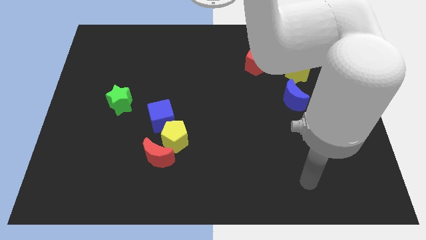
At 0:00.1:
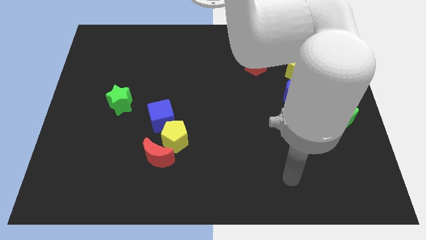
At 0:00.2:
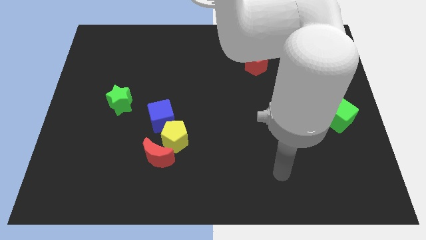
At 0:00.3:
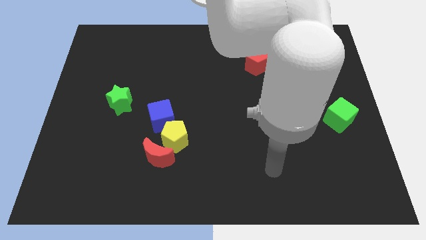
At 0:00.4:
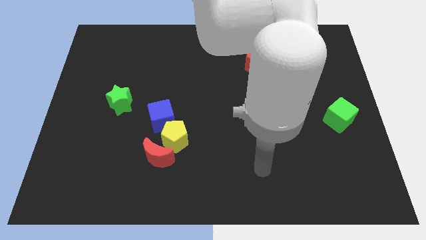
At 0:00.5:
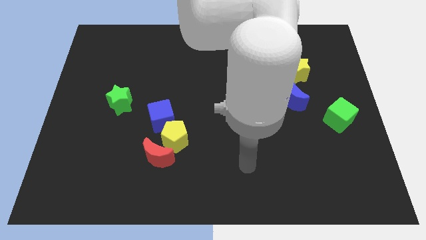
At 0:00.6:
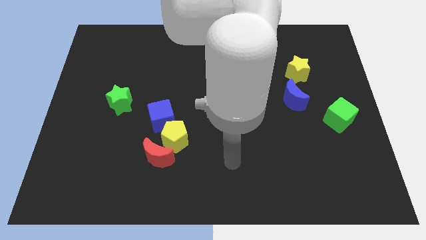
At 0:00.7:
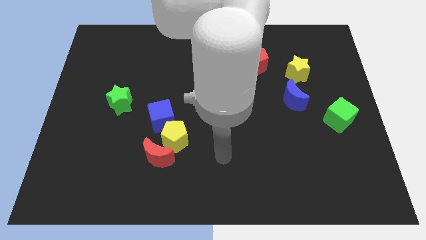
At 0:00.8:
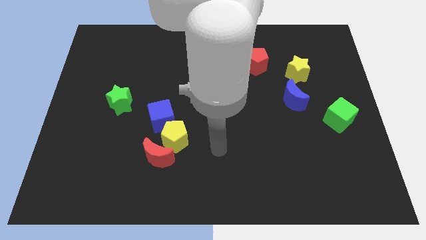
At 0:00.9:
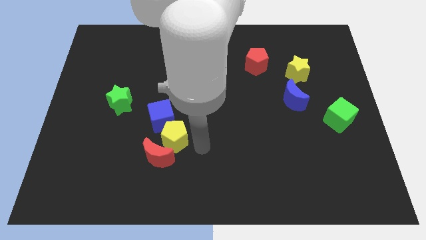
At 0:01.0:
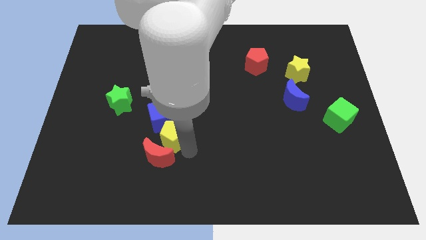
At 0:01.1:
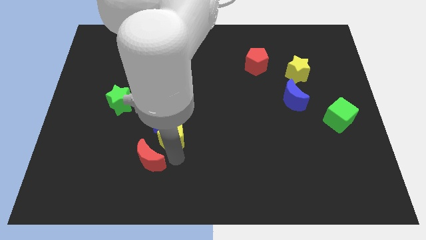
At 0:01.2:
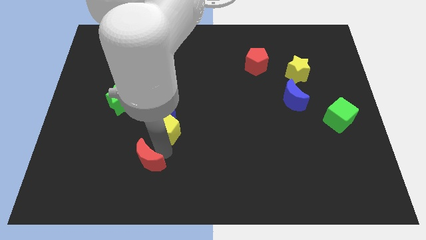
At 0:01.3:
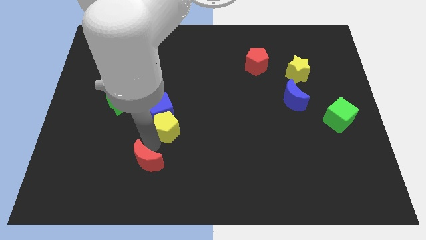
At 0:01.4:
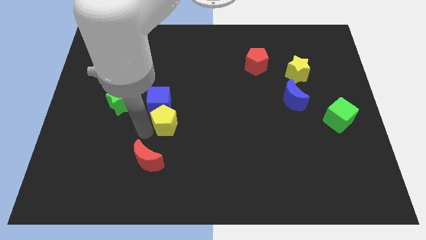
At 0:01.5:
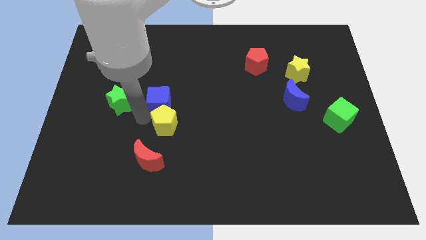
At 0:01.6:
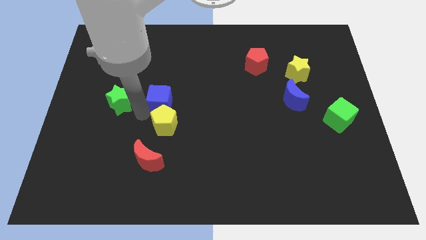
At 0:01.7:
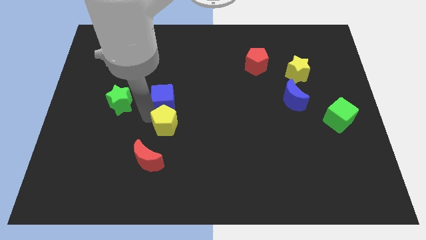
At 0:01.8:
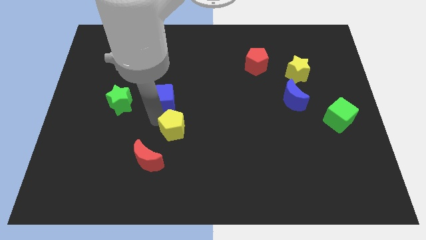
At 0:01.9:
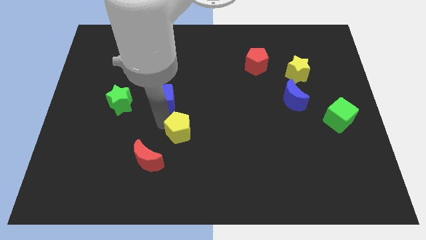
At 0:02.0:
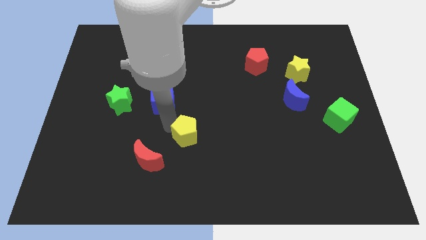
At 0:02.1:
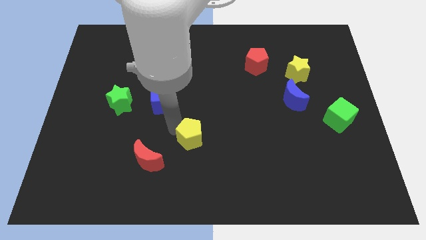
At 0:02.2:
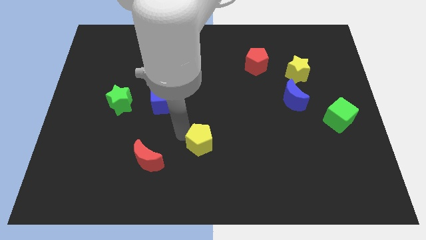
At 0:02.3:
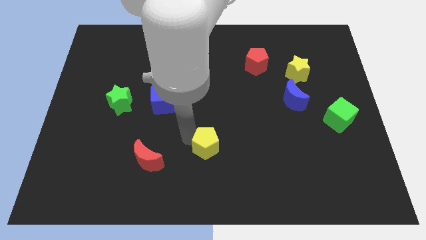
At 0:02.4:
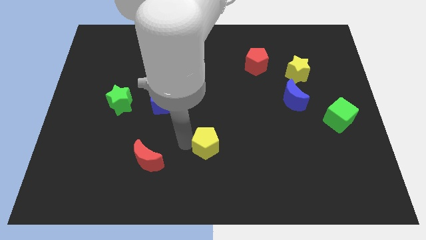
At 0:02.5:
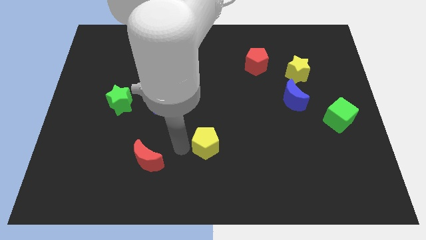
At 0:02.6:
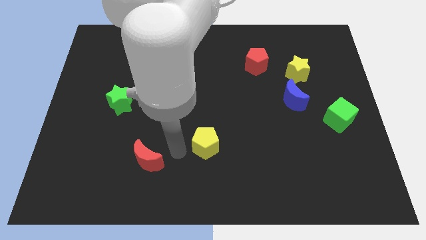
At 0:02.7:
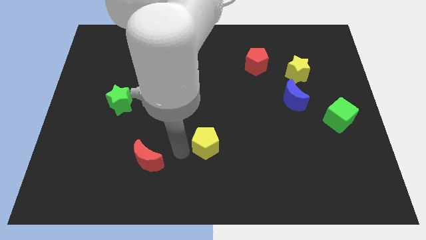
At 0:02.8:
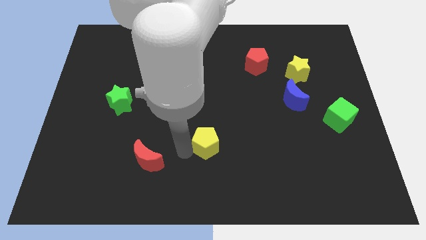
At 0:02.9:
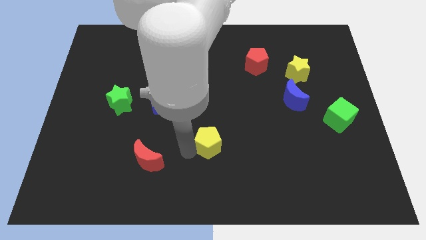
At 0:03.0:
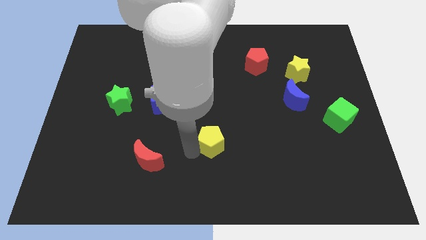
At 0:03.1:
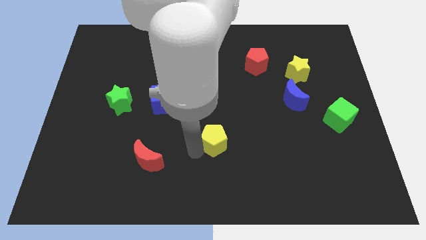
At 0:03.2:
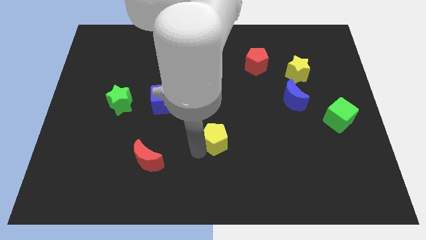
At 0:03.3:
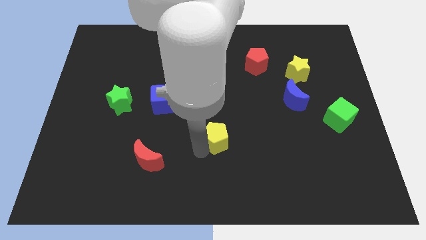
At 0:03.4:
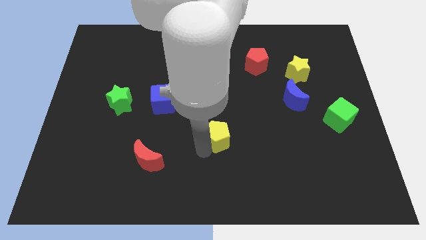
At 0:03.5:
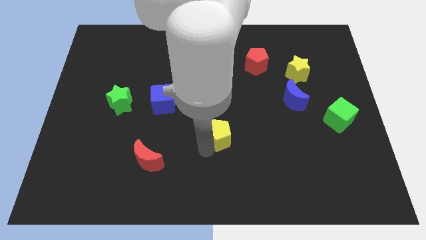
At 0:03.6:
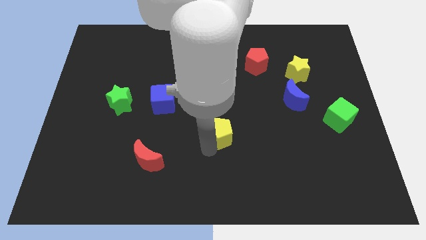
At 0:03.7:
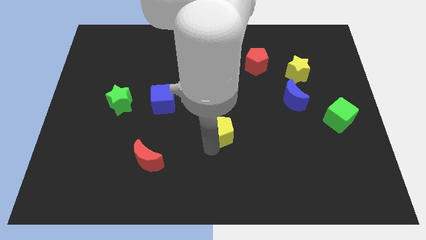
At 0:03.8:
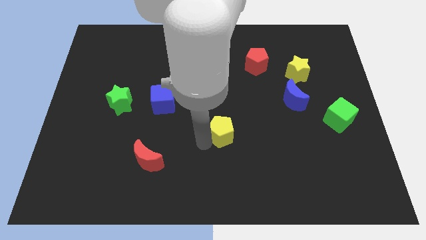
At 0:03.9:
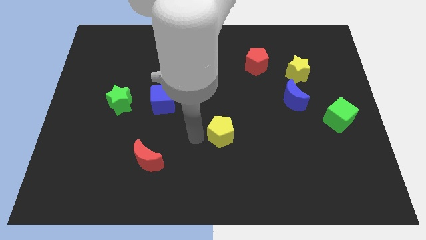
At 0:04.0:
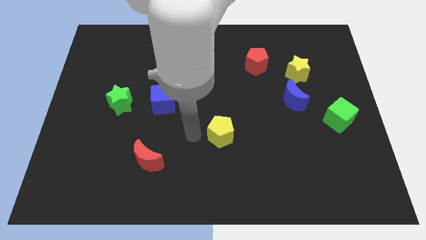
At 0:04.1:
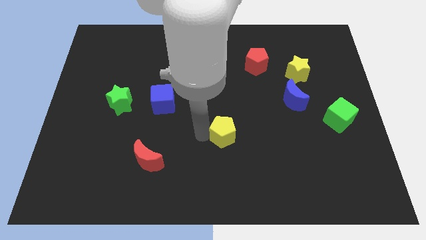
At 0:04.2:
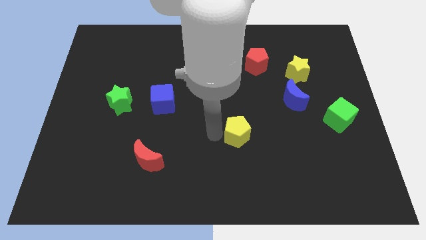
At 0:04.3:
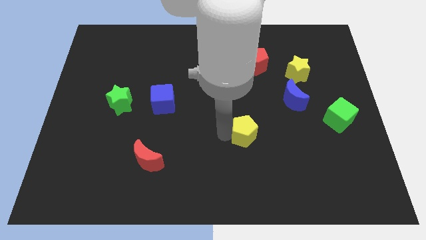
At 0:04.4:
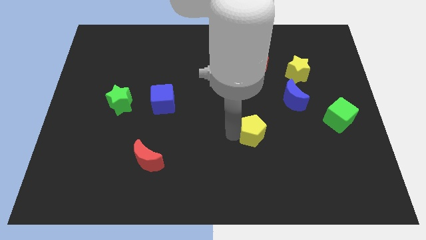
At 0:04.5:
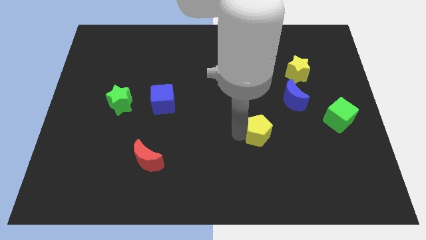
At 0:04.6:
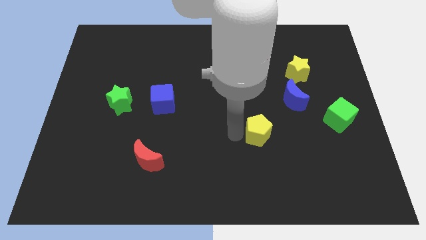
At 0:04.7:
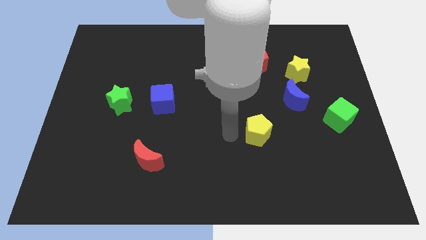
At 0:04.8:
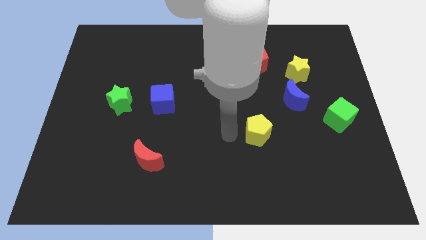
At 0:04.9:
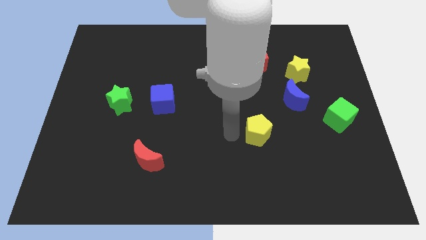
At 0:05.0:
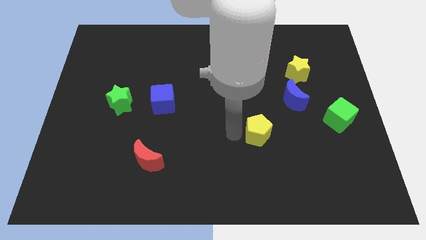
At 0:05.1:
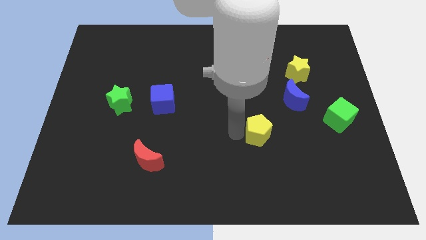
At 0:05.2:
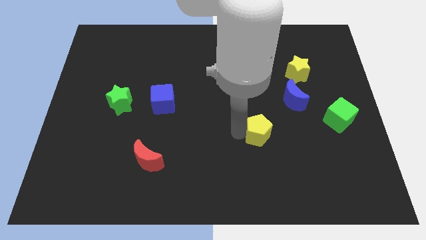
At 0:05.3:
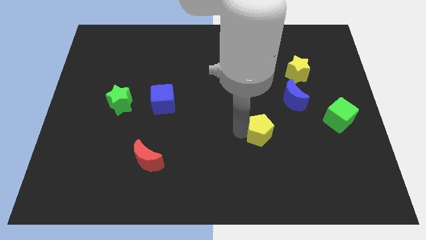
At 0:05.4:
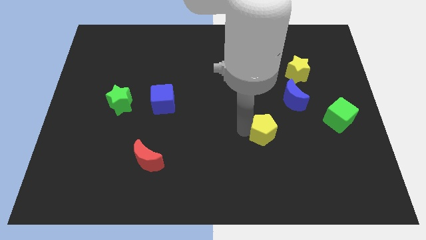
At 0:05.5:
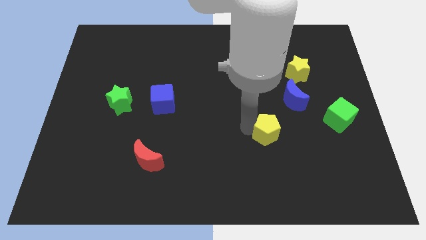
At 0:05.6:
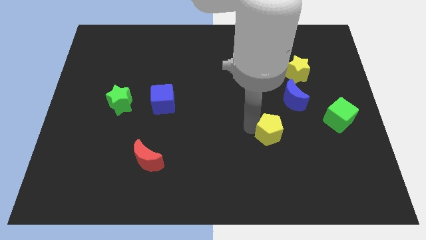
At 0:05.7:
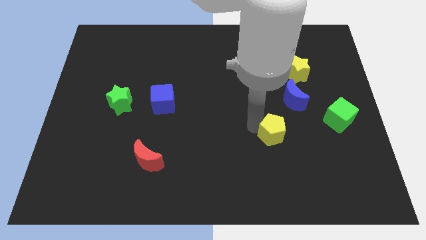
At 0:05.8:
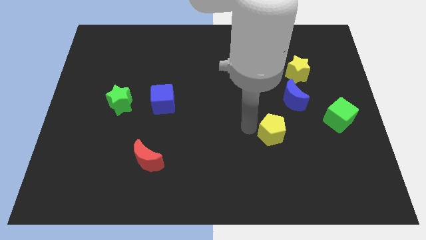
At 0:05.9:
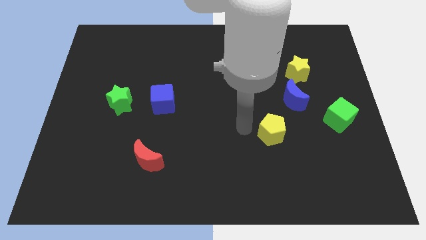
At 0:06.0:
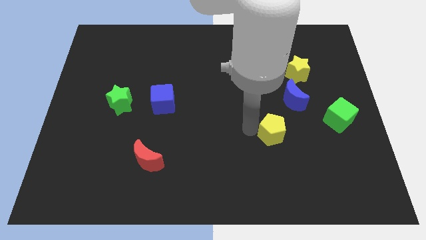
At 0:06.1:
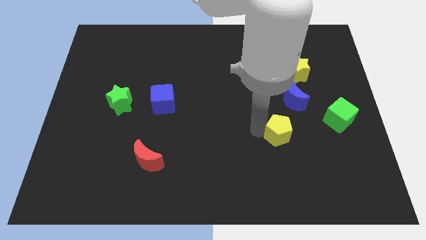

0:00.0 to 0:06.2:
put the yellow pentagon below the blue moon
